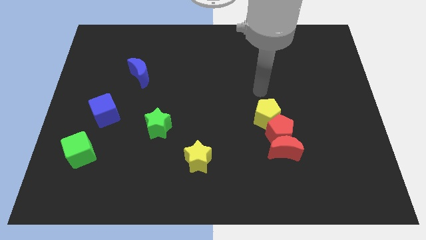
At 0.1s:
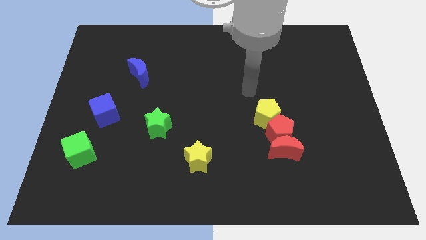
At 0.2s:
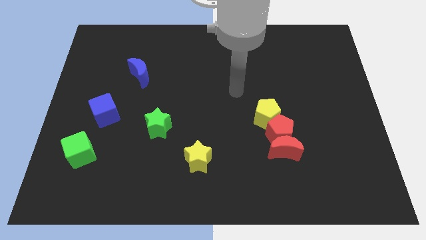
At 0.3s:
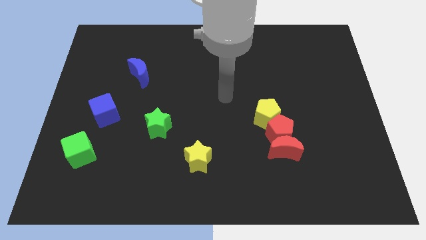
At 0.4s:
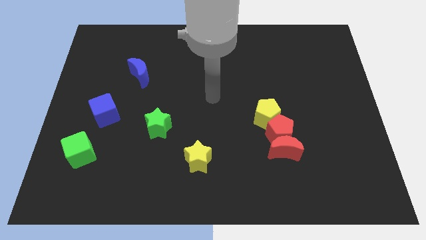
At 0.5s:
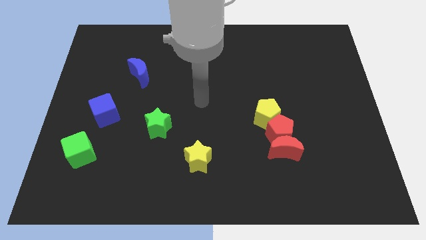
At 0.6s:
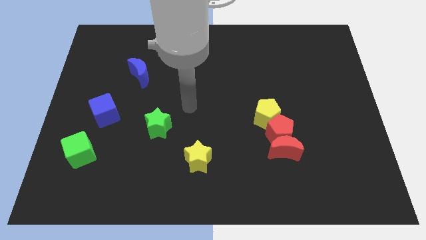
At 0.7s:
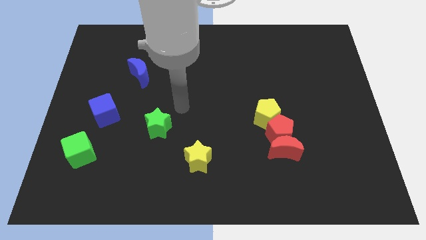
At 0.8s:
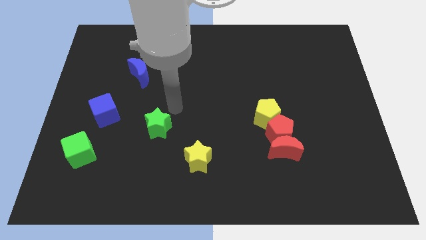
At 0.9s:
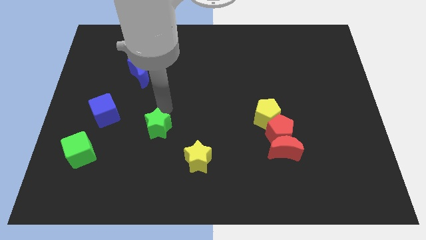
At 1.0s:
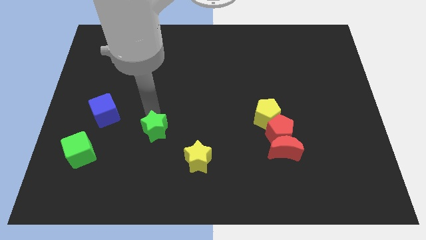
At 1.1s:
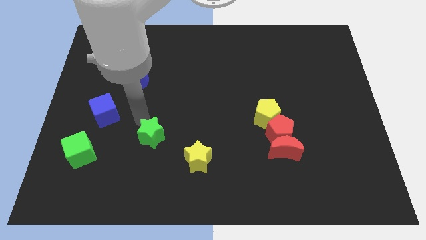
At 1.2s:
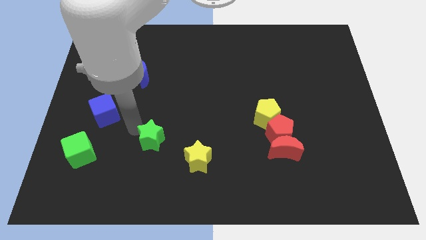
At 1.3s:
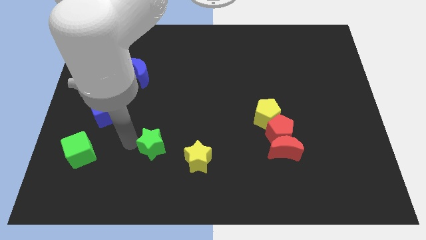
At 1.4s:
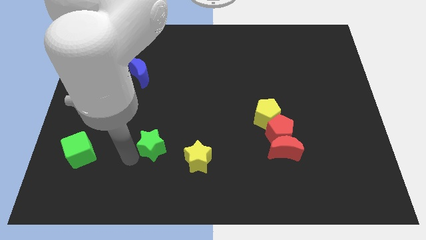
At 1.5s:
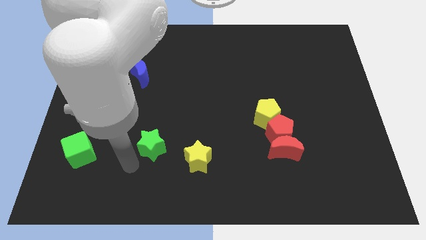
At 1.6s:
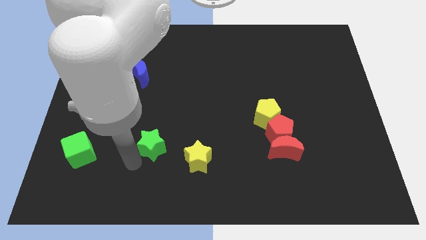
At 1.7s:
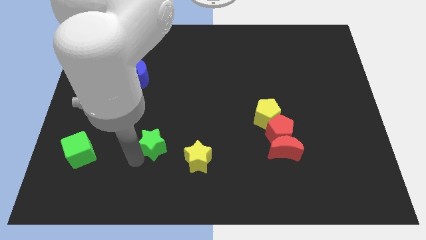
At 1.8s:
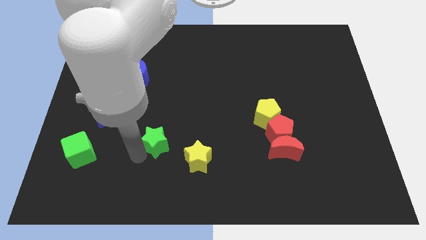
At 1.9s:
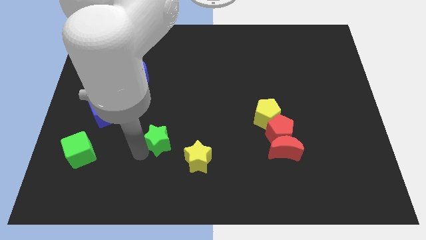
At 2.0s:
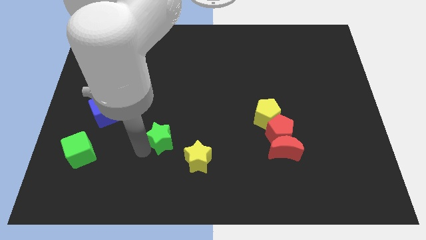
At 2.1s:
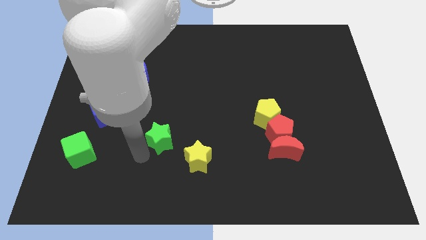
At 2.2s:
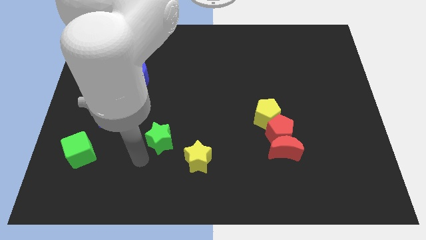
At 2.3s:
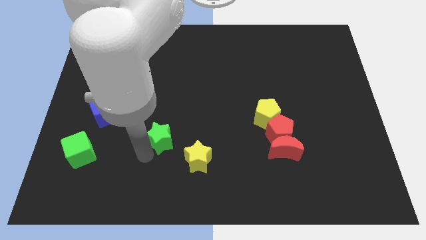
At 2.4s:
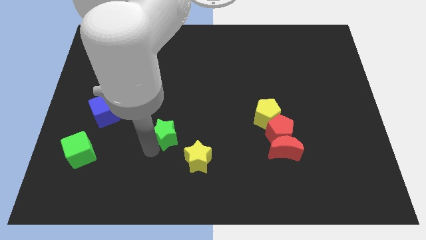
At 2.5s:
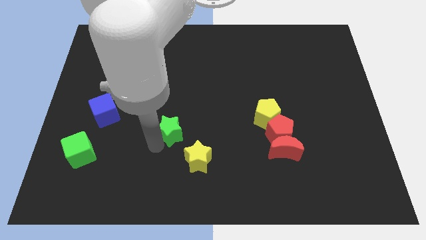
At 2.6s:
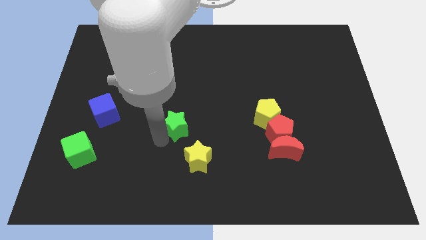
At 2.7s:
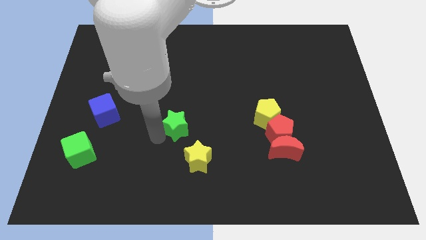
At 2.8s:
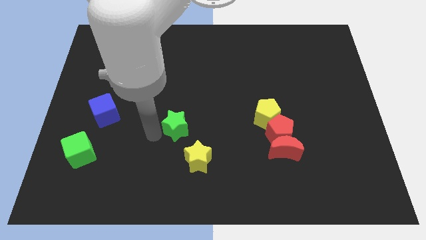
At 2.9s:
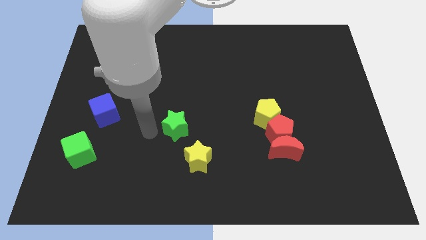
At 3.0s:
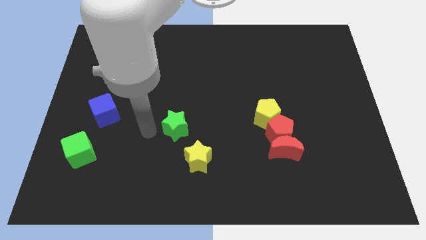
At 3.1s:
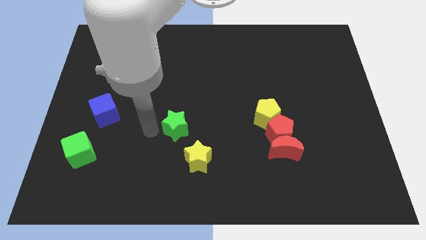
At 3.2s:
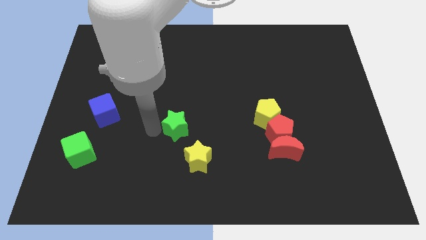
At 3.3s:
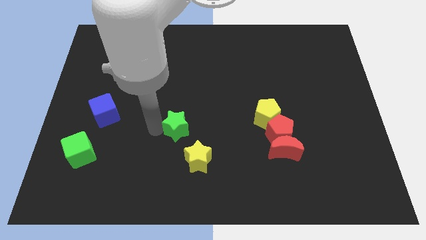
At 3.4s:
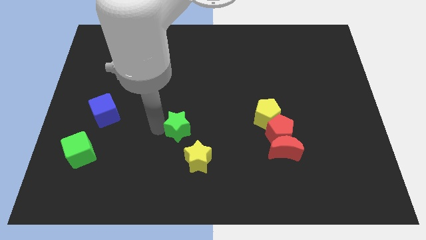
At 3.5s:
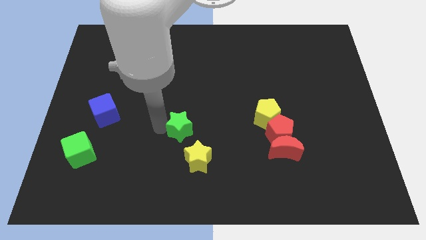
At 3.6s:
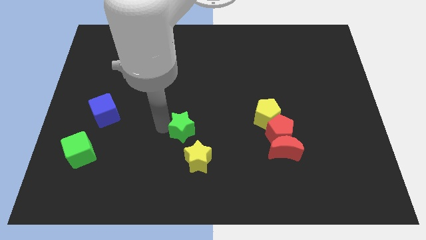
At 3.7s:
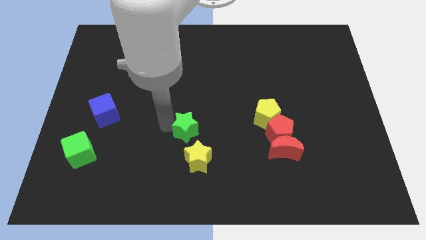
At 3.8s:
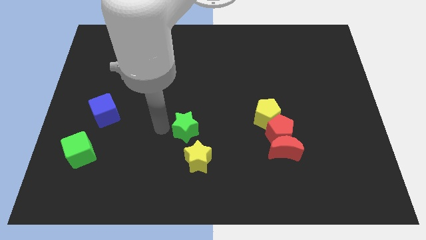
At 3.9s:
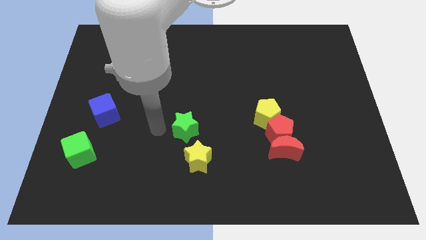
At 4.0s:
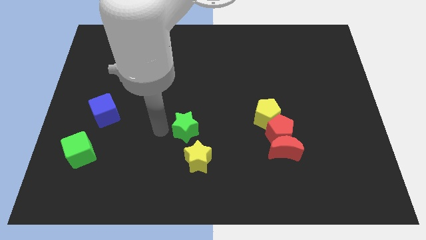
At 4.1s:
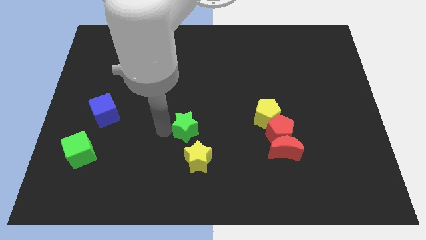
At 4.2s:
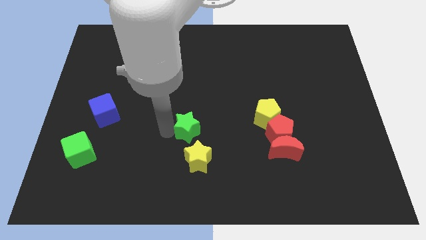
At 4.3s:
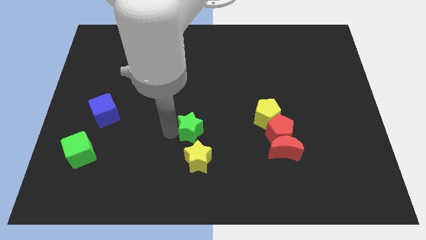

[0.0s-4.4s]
move the green star a bit right

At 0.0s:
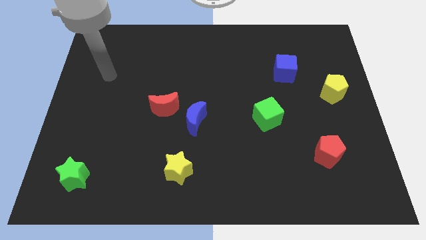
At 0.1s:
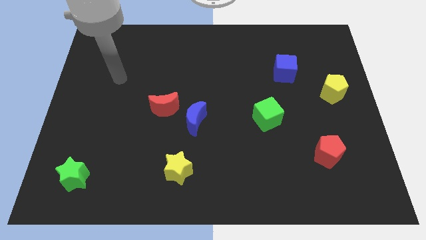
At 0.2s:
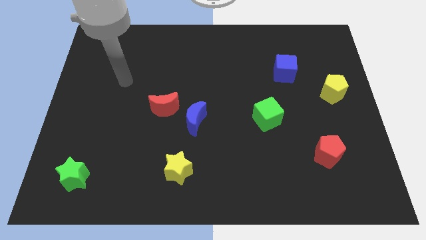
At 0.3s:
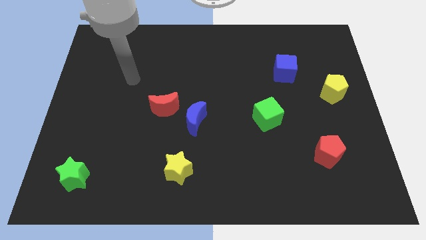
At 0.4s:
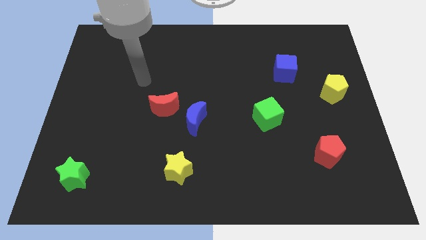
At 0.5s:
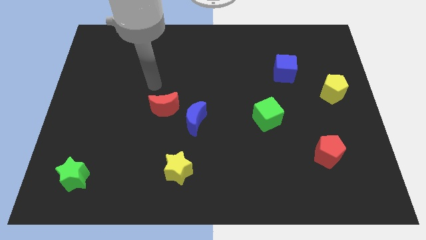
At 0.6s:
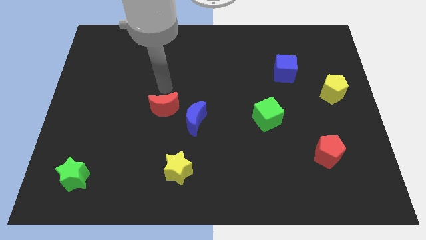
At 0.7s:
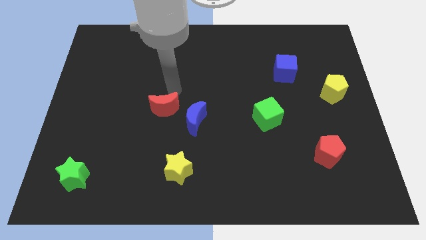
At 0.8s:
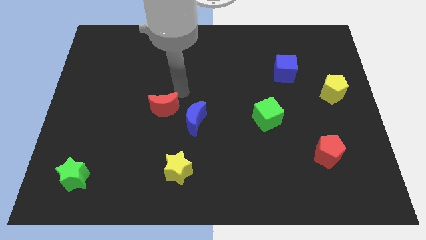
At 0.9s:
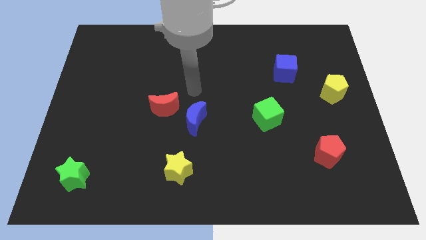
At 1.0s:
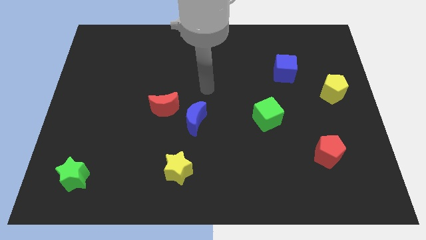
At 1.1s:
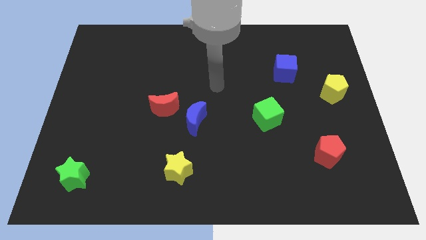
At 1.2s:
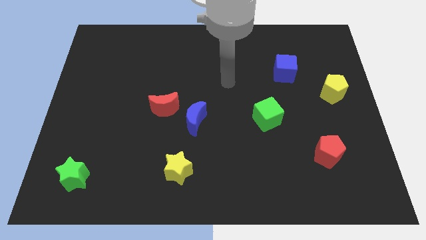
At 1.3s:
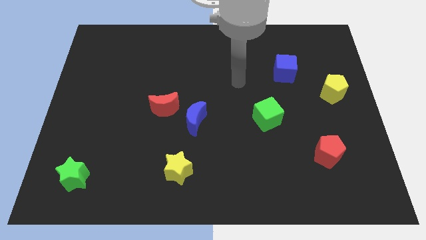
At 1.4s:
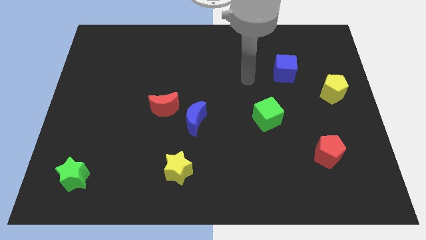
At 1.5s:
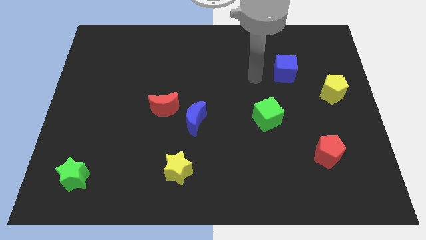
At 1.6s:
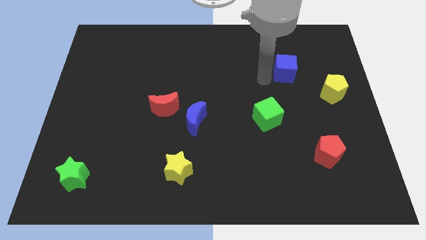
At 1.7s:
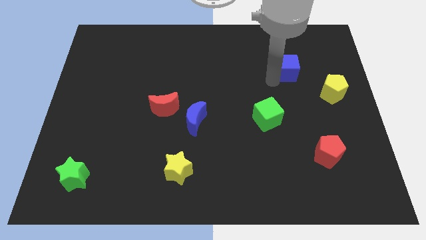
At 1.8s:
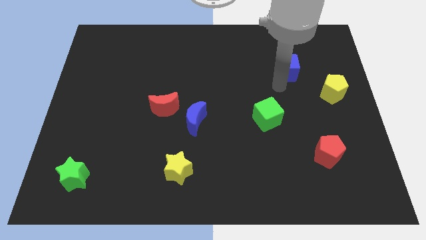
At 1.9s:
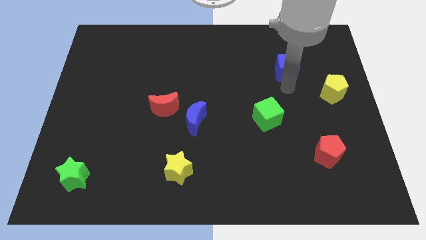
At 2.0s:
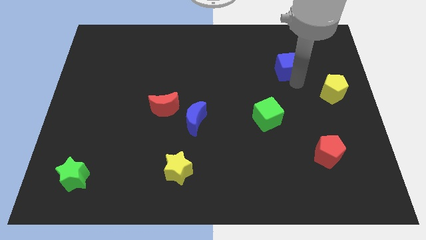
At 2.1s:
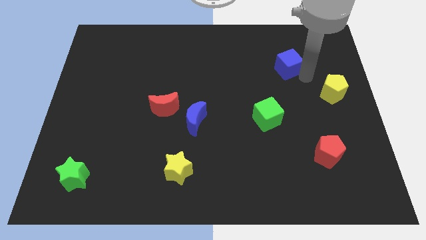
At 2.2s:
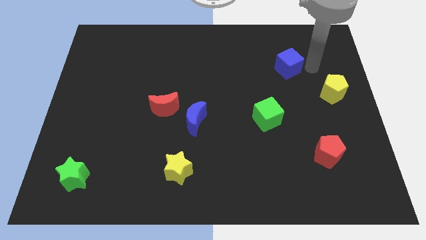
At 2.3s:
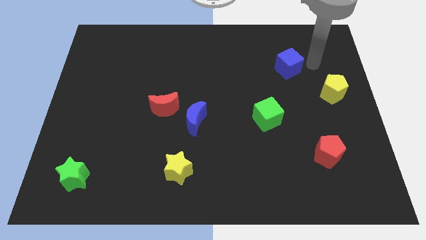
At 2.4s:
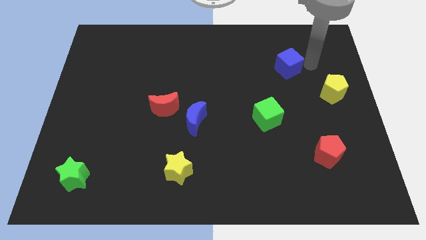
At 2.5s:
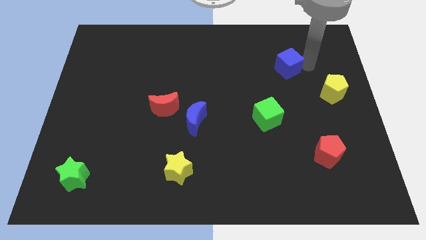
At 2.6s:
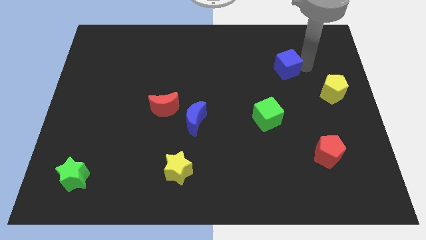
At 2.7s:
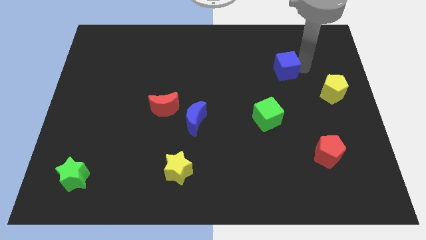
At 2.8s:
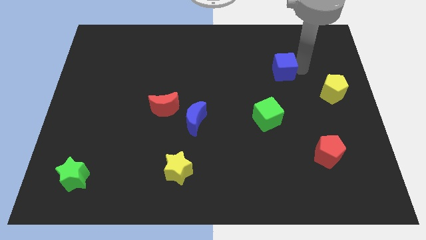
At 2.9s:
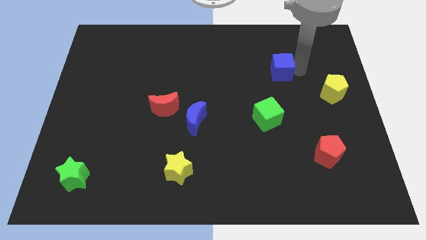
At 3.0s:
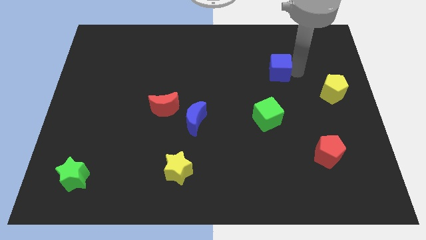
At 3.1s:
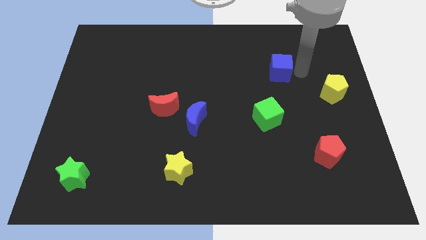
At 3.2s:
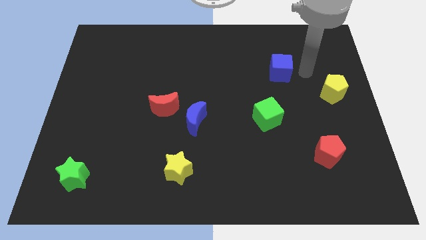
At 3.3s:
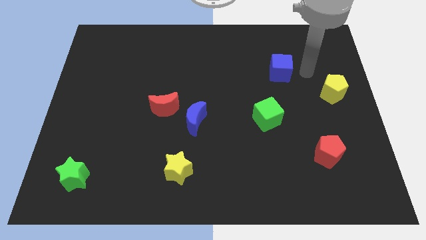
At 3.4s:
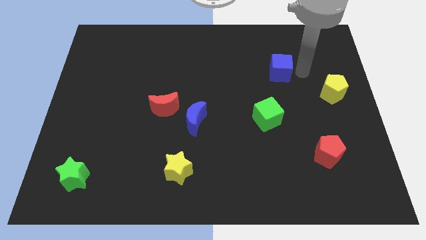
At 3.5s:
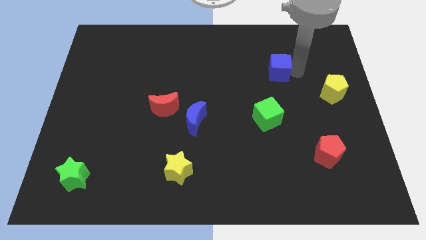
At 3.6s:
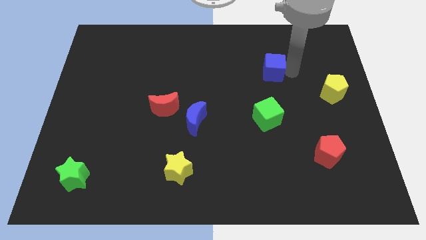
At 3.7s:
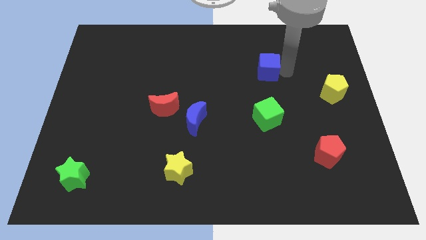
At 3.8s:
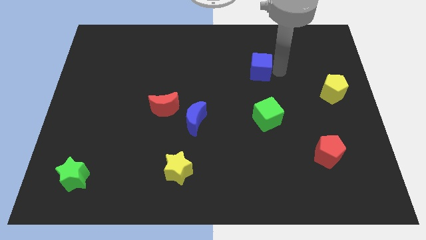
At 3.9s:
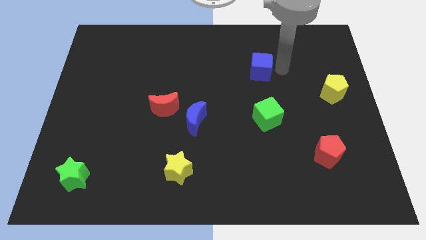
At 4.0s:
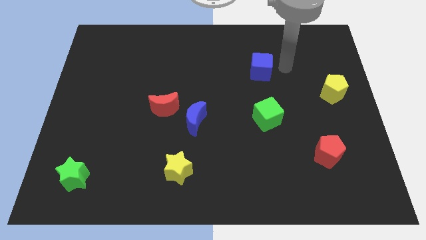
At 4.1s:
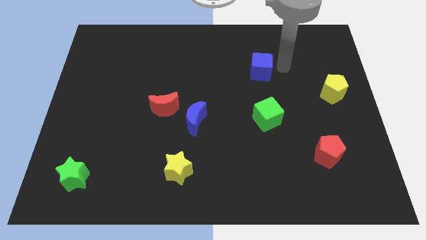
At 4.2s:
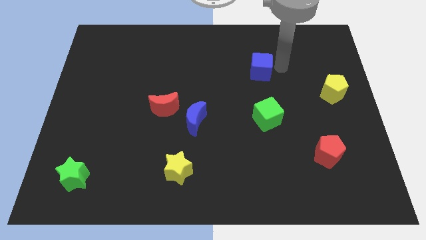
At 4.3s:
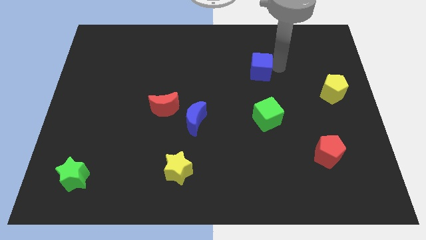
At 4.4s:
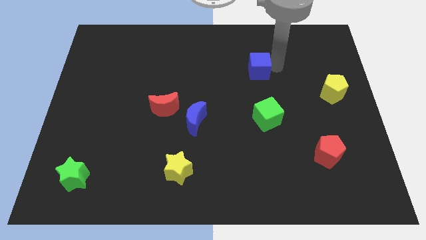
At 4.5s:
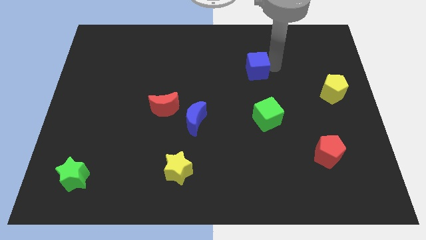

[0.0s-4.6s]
push the blue cube slightly left
